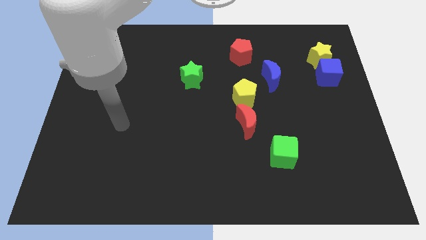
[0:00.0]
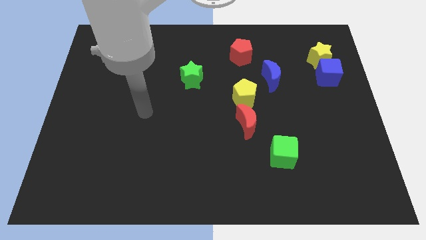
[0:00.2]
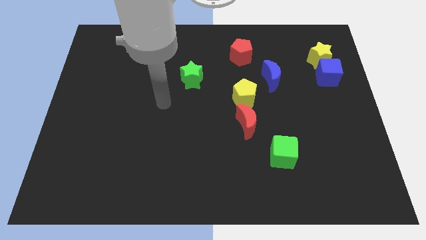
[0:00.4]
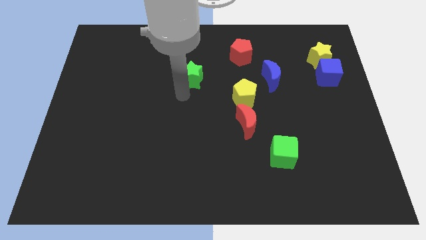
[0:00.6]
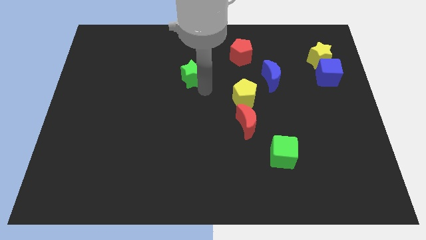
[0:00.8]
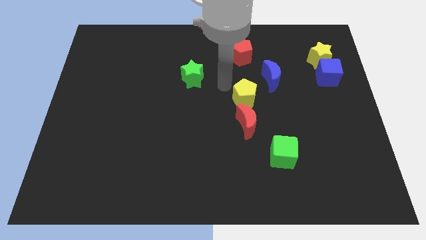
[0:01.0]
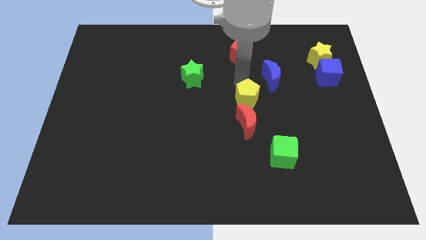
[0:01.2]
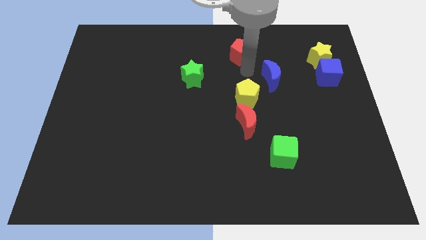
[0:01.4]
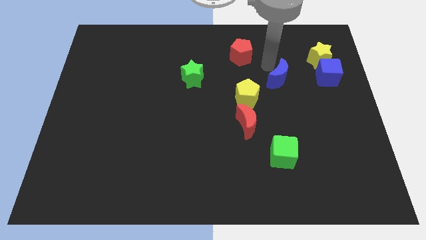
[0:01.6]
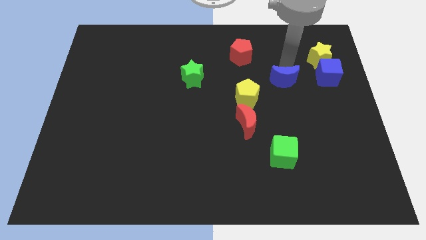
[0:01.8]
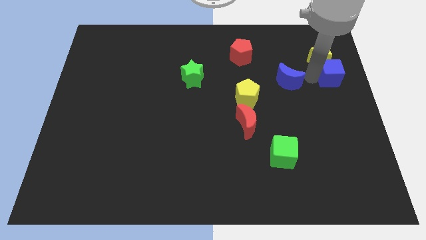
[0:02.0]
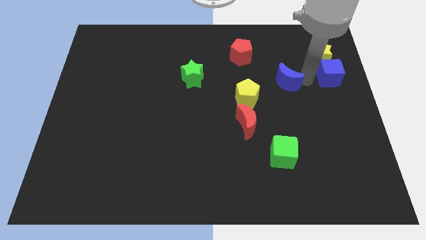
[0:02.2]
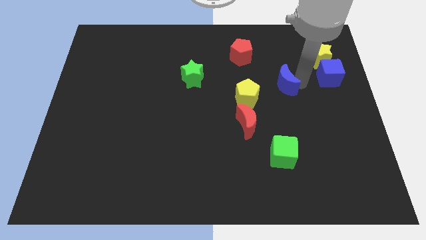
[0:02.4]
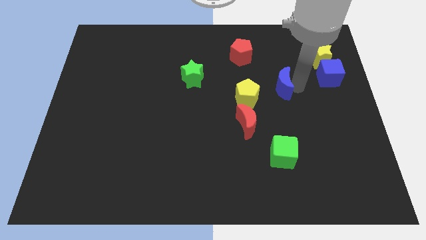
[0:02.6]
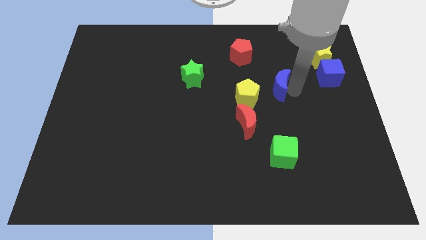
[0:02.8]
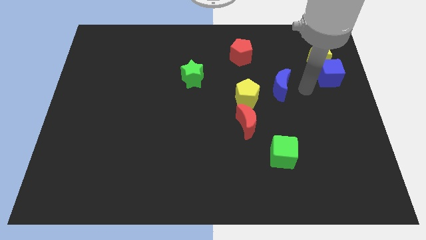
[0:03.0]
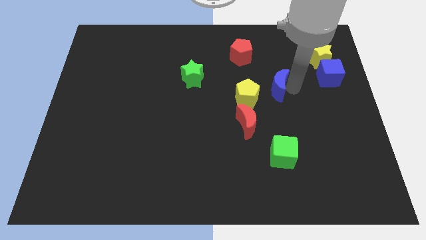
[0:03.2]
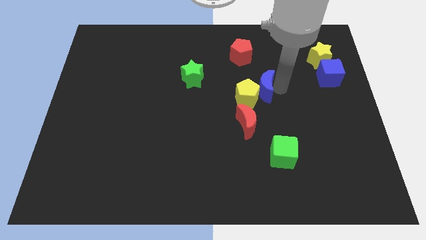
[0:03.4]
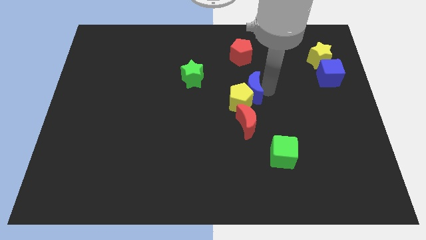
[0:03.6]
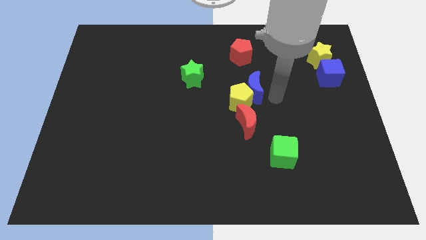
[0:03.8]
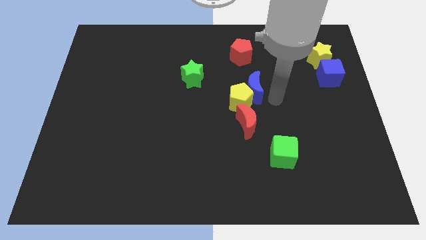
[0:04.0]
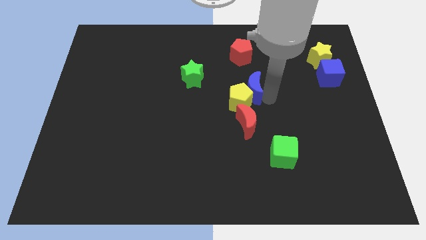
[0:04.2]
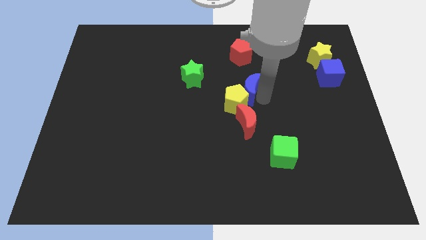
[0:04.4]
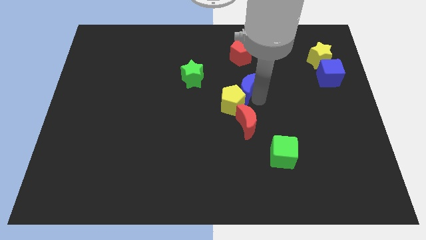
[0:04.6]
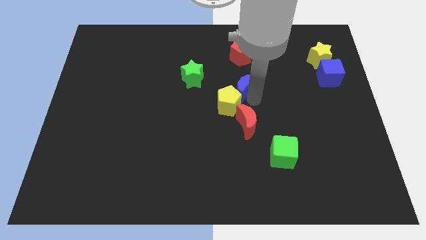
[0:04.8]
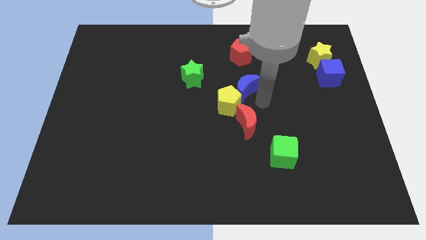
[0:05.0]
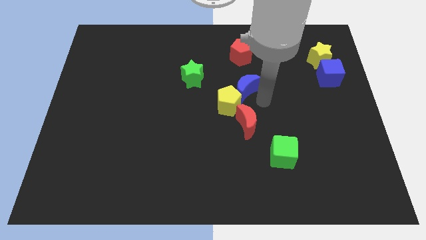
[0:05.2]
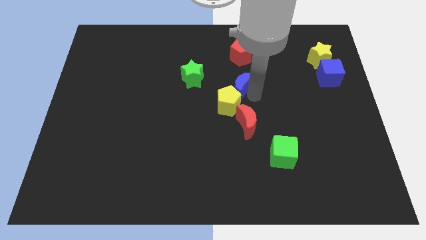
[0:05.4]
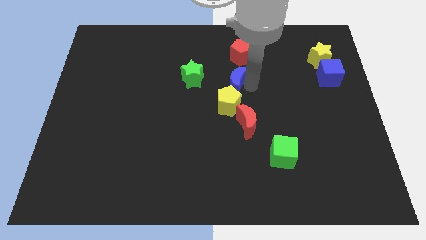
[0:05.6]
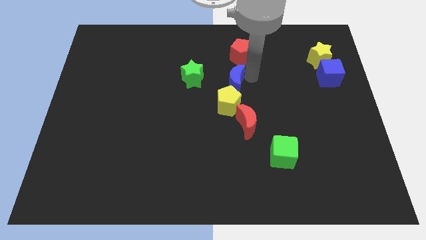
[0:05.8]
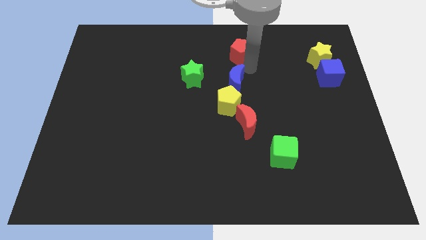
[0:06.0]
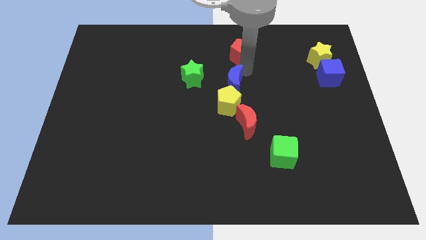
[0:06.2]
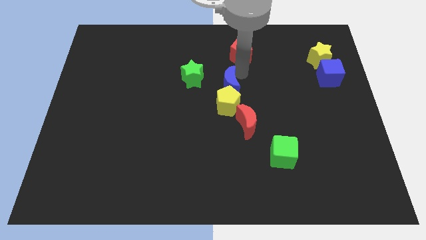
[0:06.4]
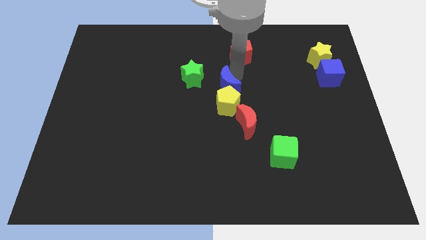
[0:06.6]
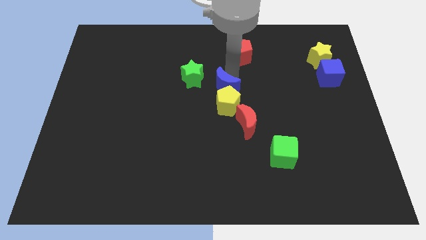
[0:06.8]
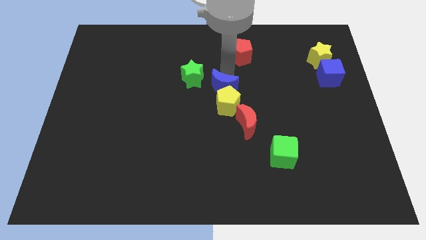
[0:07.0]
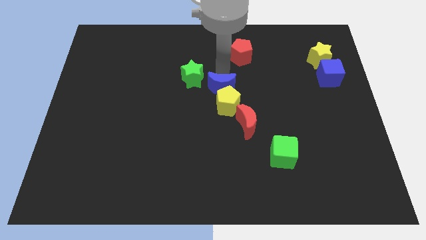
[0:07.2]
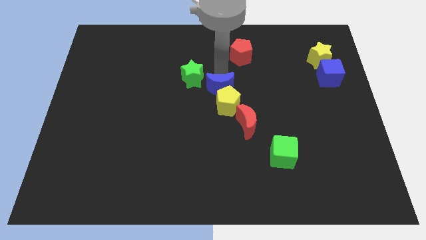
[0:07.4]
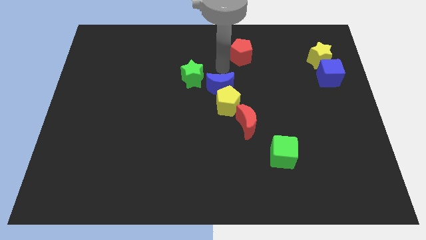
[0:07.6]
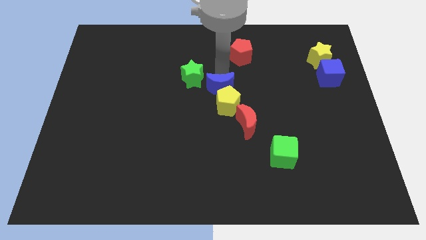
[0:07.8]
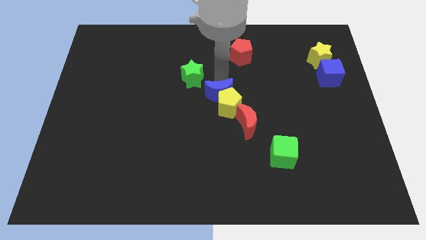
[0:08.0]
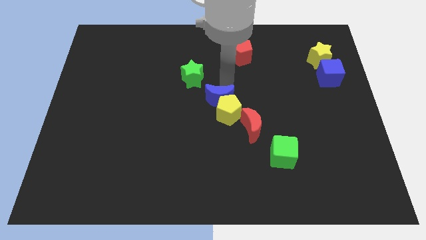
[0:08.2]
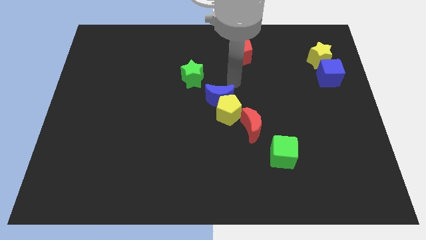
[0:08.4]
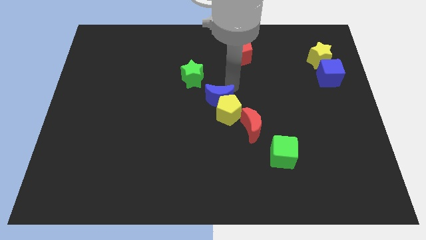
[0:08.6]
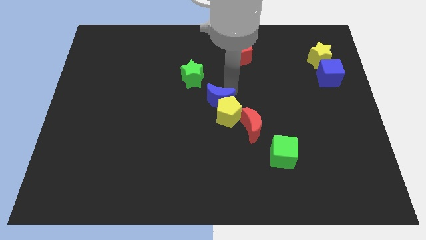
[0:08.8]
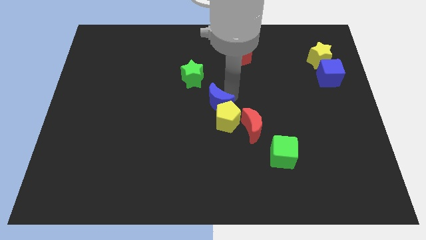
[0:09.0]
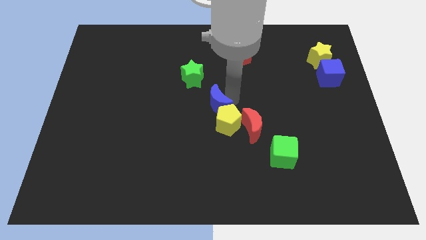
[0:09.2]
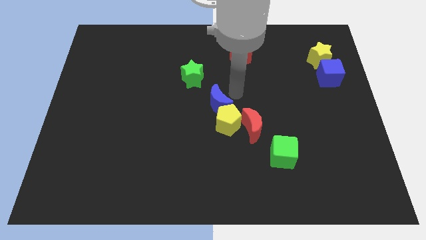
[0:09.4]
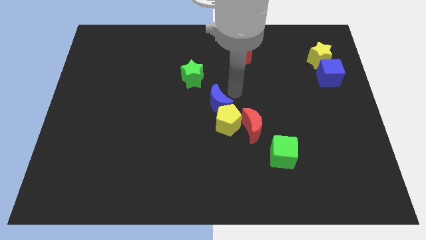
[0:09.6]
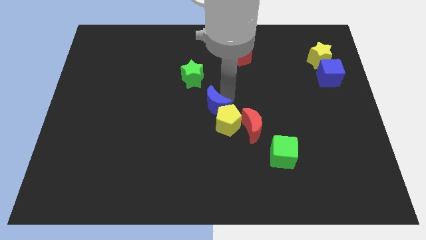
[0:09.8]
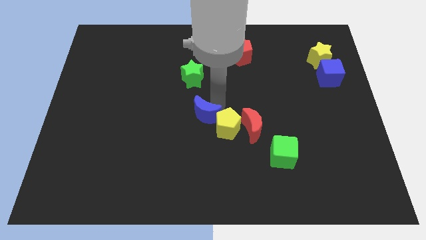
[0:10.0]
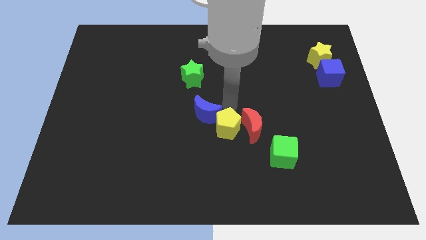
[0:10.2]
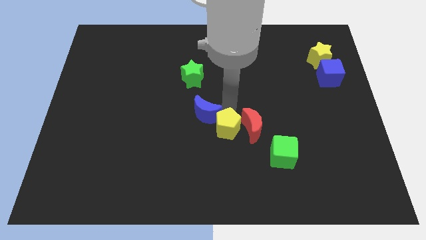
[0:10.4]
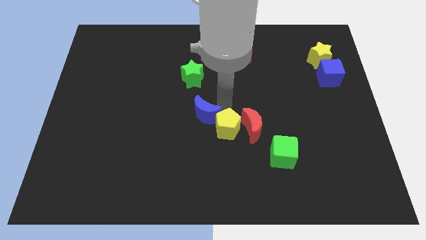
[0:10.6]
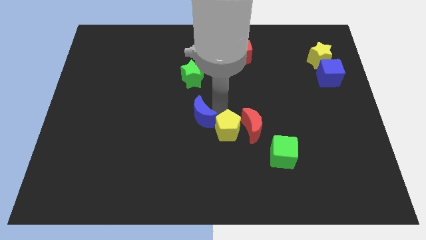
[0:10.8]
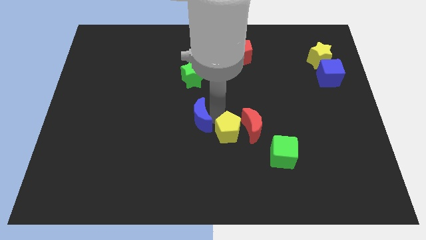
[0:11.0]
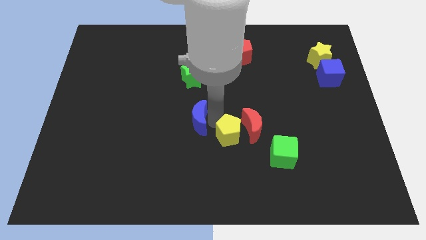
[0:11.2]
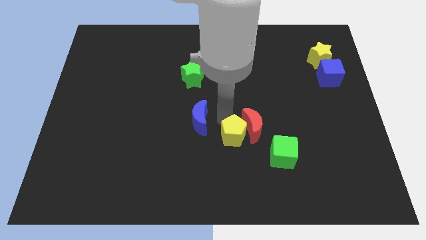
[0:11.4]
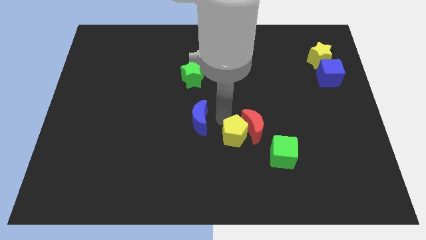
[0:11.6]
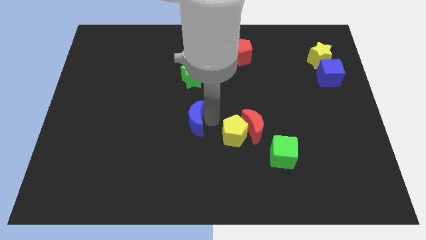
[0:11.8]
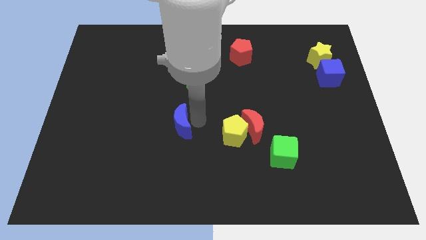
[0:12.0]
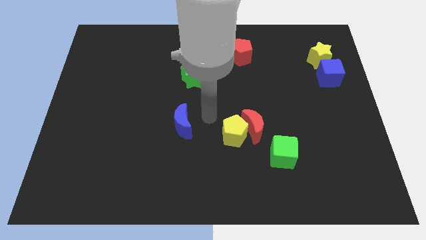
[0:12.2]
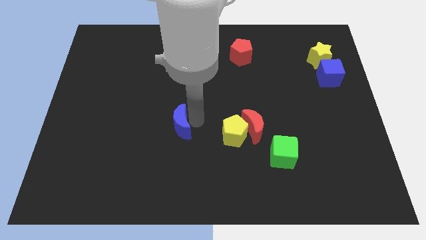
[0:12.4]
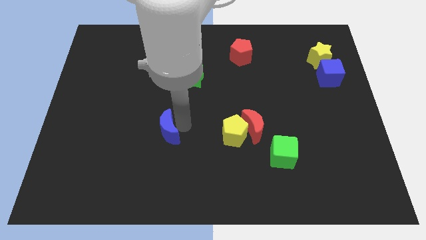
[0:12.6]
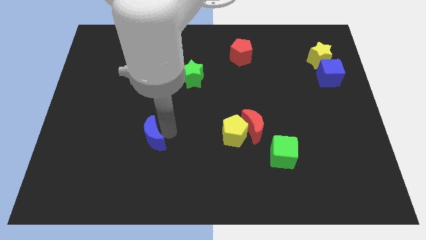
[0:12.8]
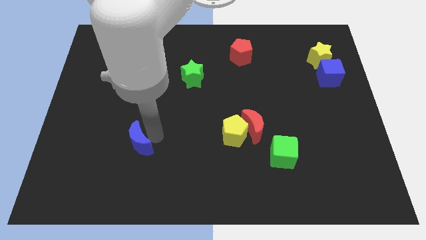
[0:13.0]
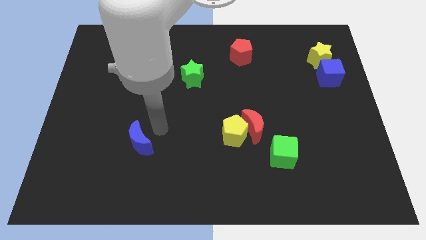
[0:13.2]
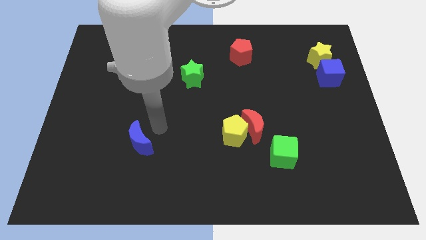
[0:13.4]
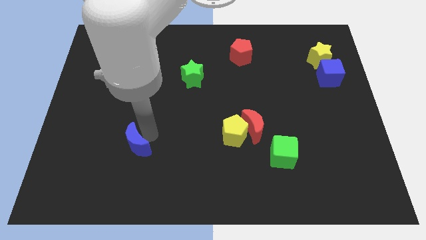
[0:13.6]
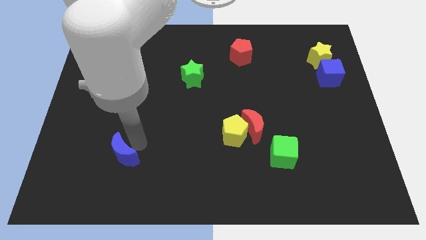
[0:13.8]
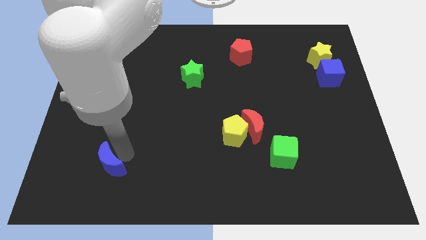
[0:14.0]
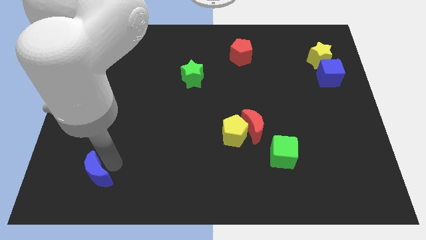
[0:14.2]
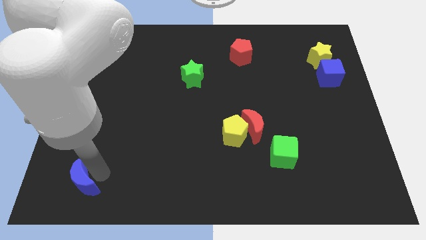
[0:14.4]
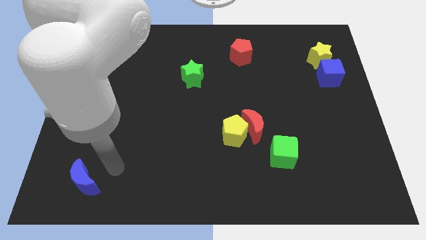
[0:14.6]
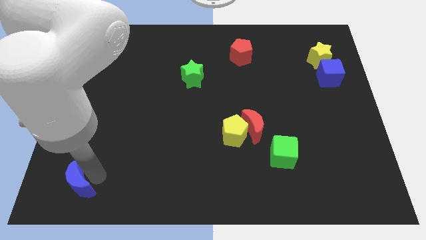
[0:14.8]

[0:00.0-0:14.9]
put the blue moon to the bottom left of the board
